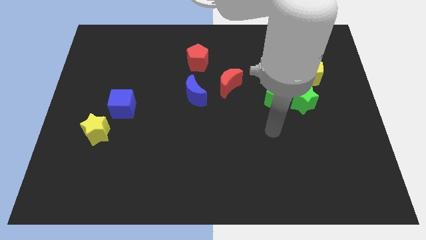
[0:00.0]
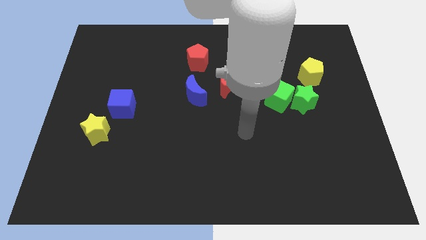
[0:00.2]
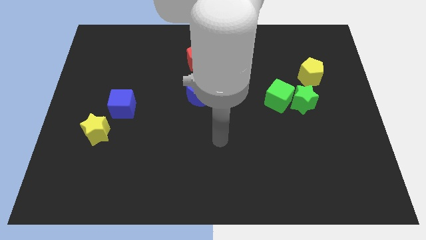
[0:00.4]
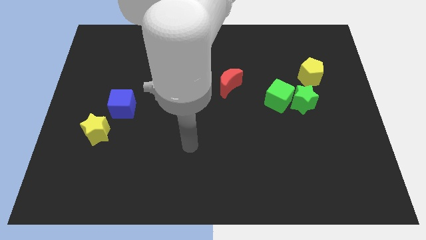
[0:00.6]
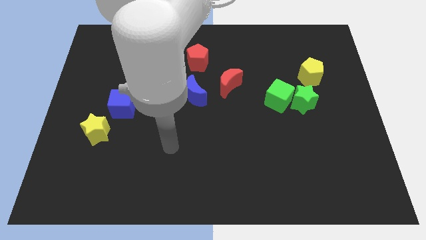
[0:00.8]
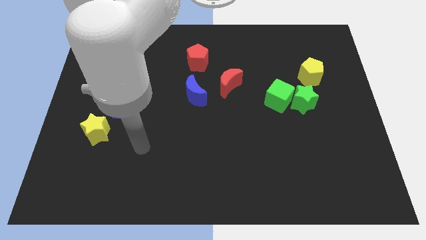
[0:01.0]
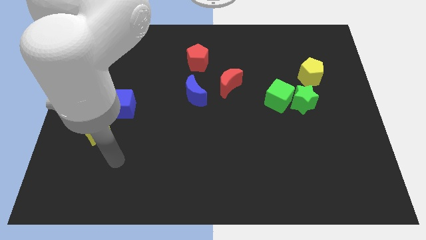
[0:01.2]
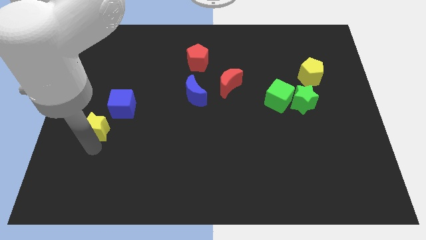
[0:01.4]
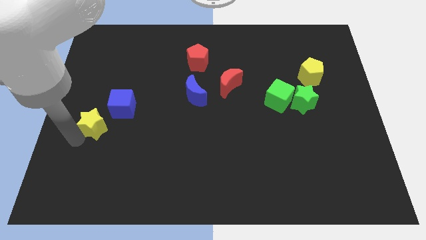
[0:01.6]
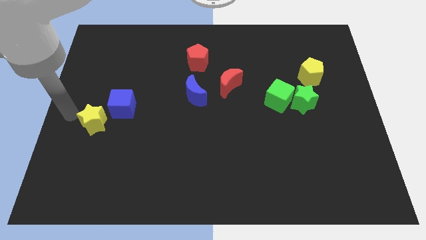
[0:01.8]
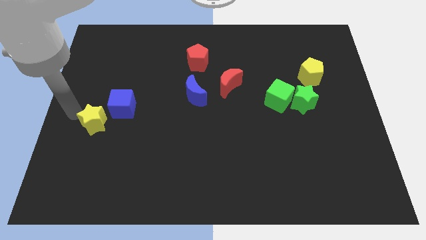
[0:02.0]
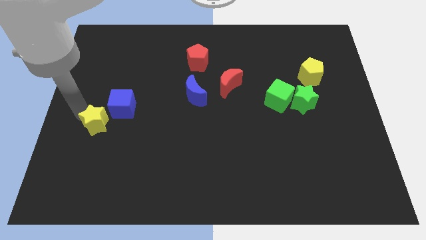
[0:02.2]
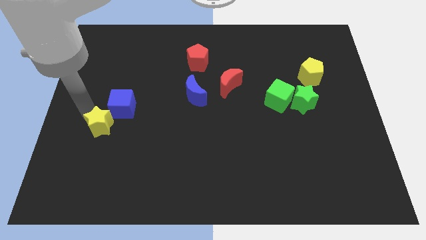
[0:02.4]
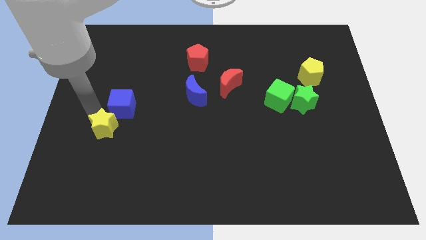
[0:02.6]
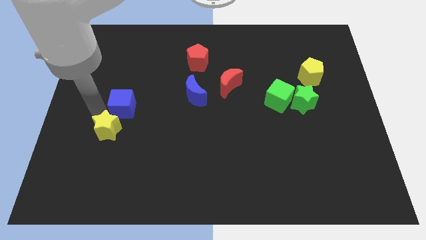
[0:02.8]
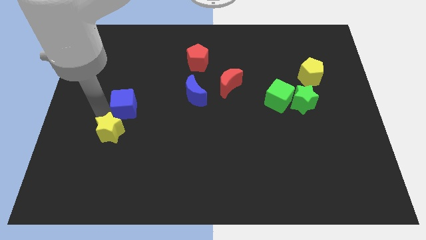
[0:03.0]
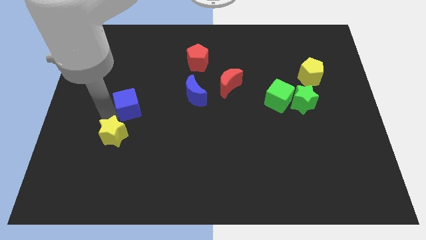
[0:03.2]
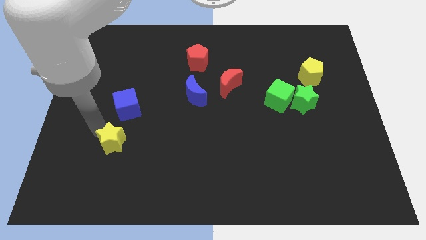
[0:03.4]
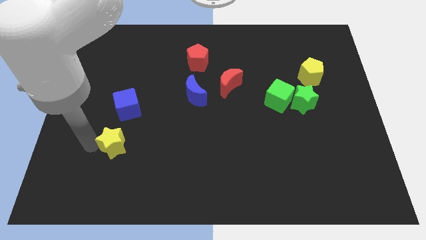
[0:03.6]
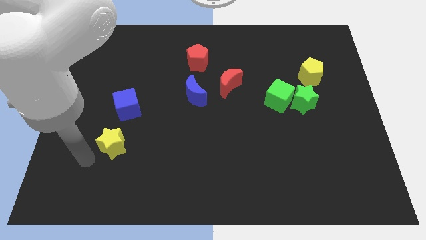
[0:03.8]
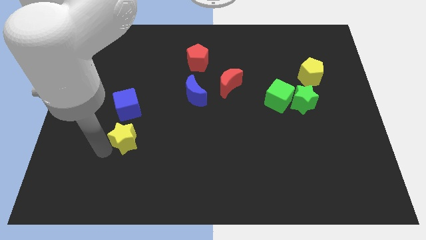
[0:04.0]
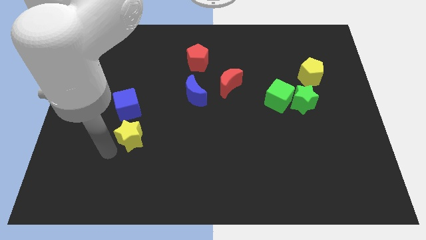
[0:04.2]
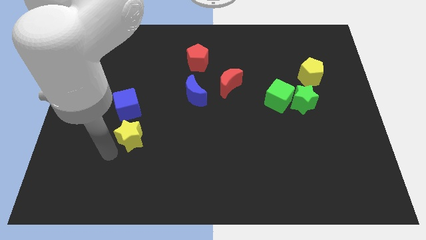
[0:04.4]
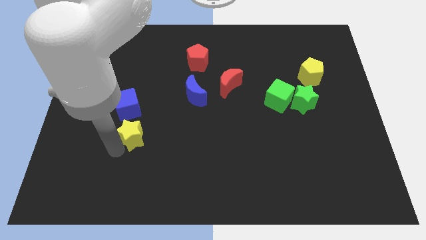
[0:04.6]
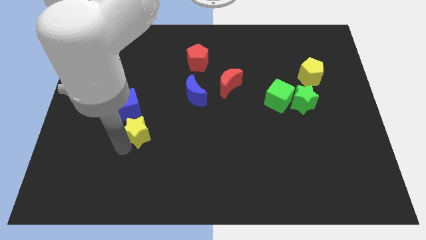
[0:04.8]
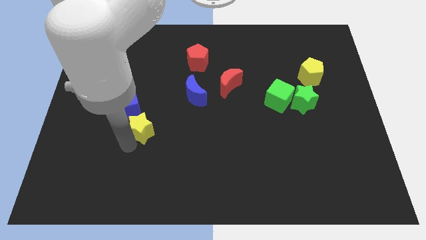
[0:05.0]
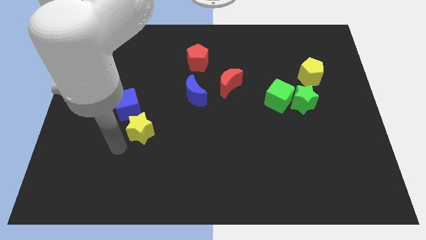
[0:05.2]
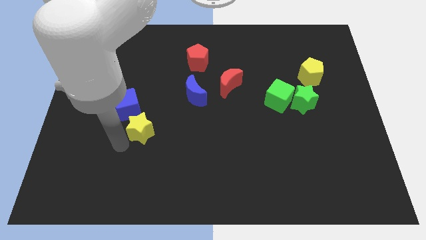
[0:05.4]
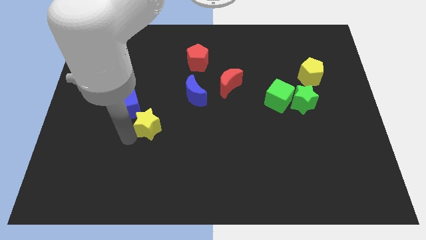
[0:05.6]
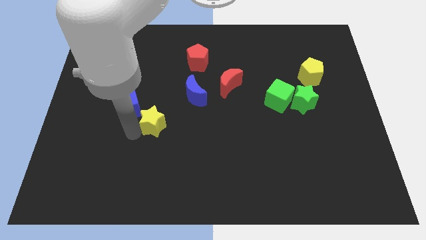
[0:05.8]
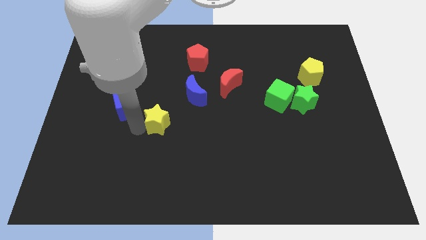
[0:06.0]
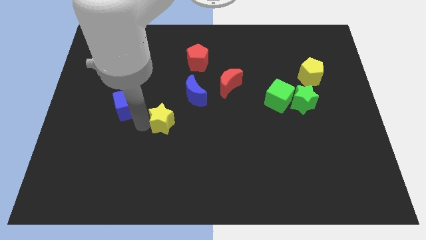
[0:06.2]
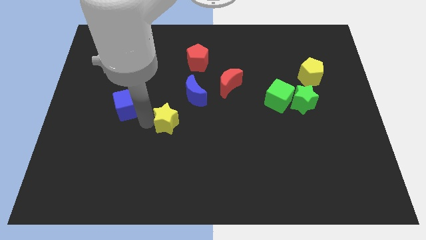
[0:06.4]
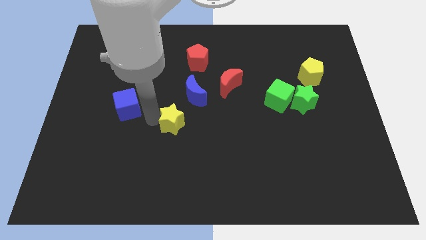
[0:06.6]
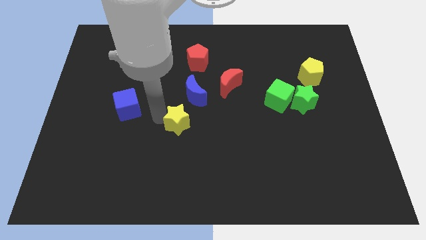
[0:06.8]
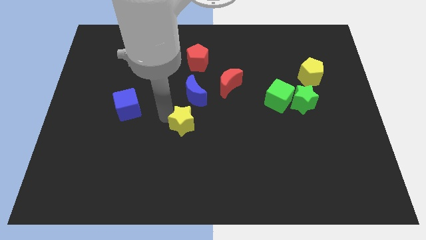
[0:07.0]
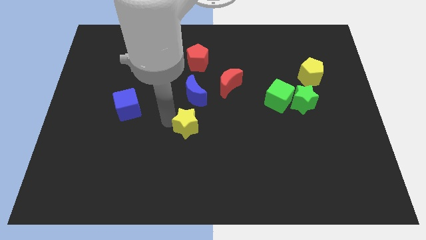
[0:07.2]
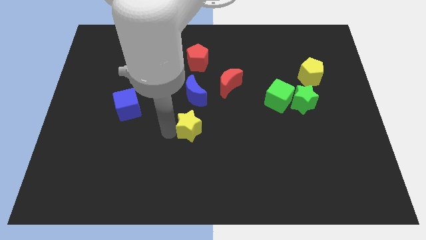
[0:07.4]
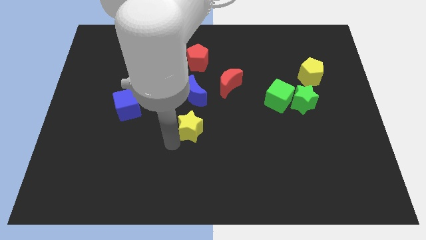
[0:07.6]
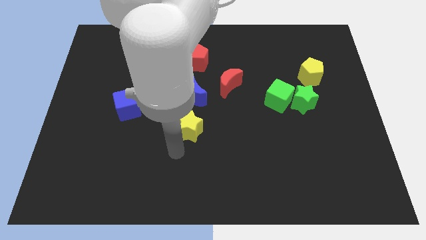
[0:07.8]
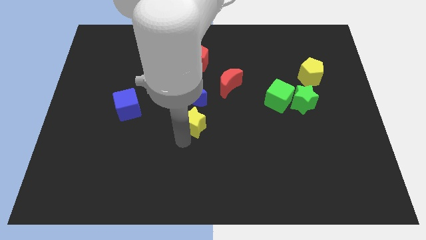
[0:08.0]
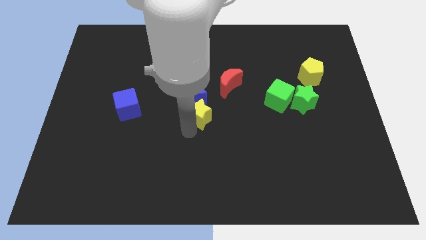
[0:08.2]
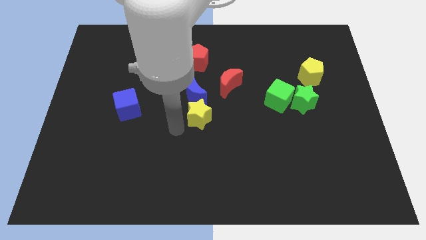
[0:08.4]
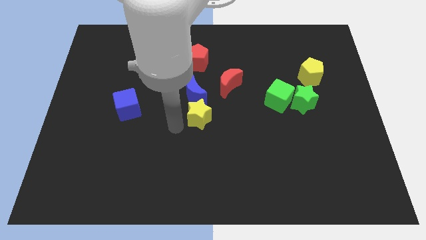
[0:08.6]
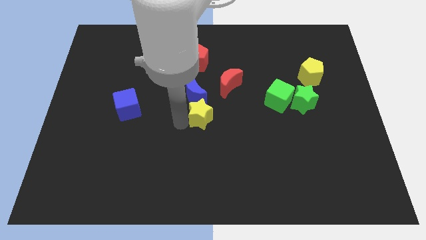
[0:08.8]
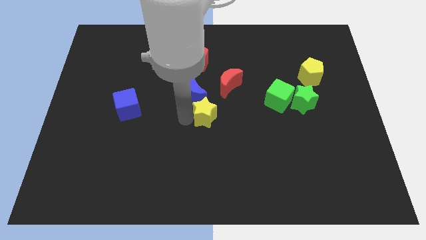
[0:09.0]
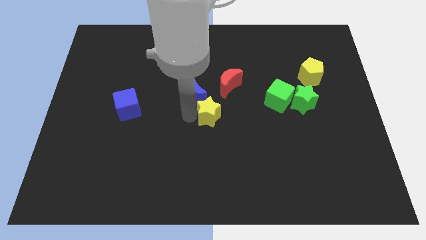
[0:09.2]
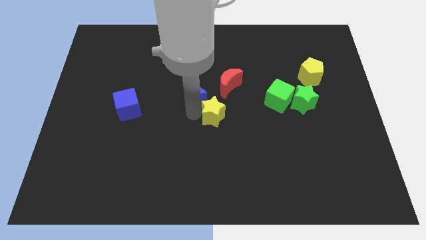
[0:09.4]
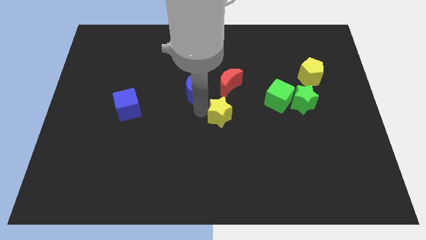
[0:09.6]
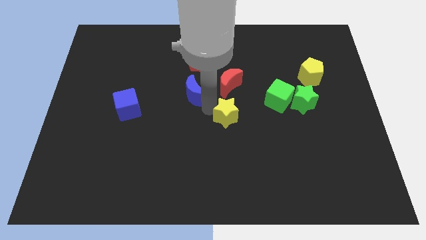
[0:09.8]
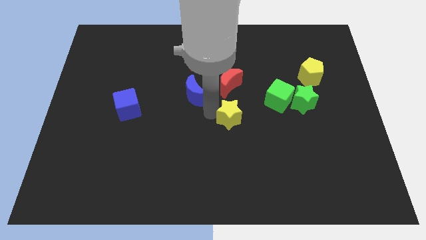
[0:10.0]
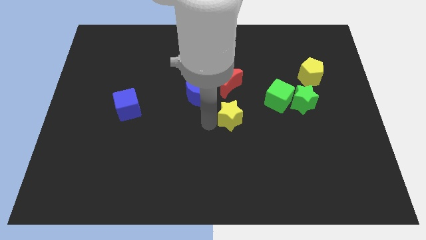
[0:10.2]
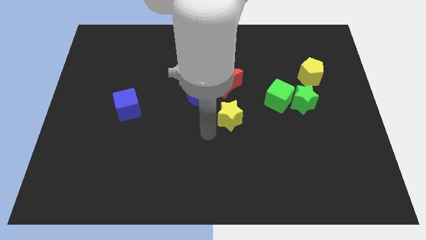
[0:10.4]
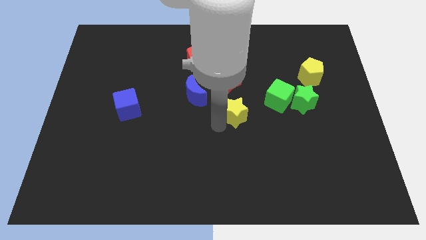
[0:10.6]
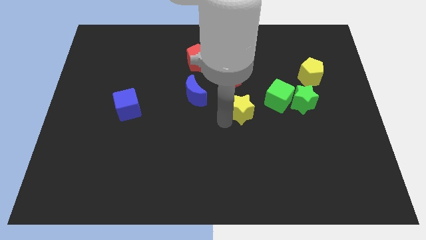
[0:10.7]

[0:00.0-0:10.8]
push the yellow star to the bottom right of the red moon
